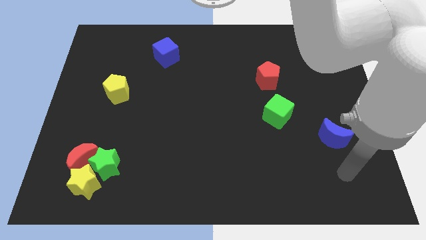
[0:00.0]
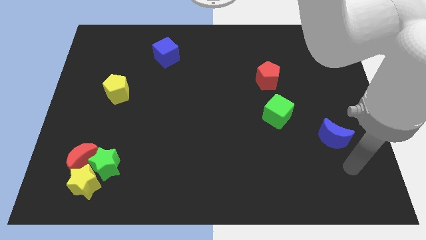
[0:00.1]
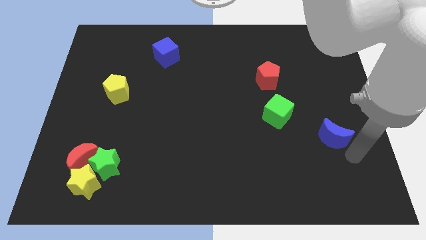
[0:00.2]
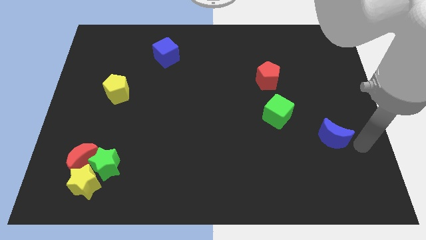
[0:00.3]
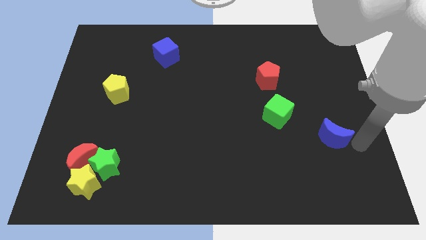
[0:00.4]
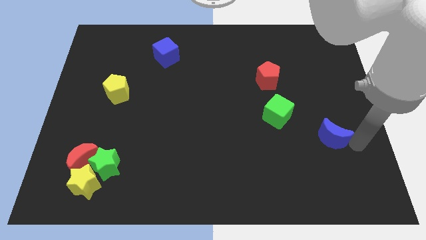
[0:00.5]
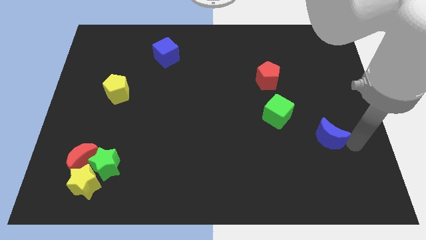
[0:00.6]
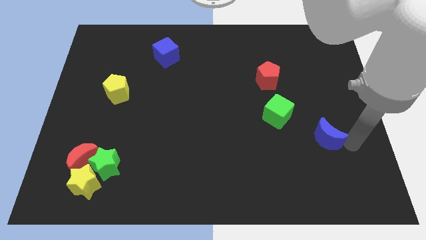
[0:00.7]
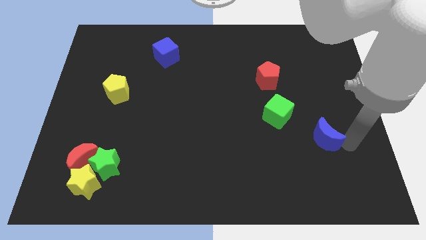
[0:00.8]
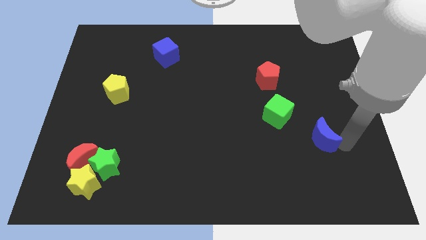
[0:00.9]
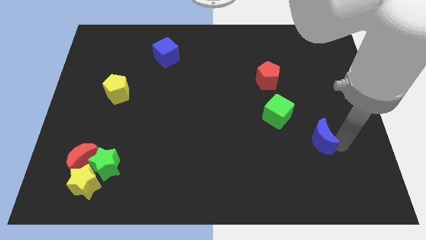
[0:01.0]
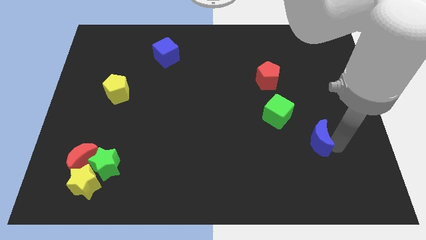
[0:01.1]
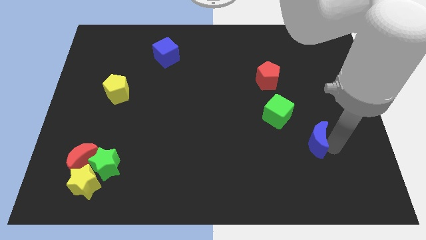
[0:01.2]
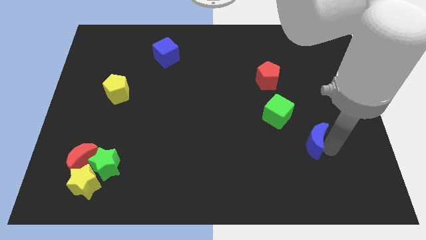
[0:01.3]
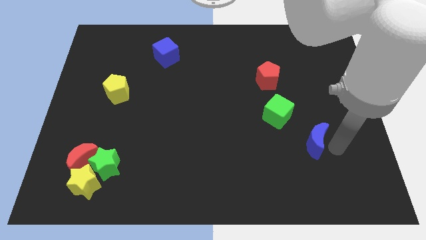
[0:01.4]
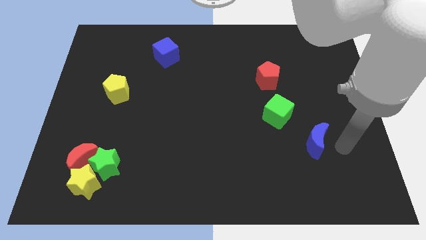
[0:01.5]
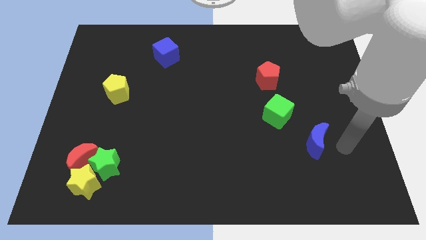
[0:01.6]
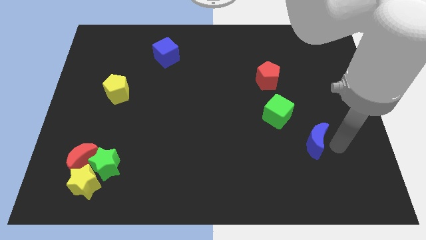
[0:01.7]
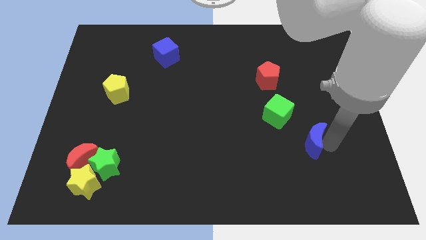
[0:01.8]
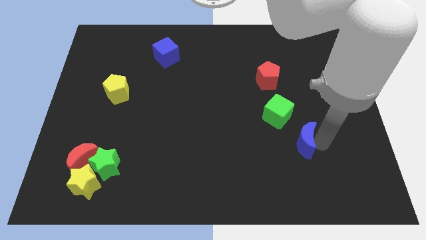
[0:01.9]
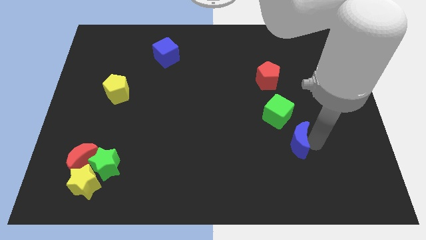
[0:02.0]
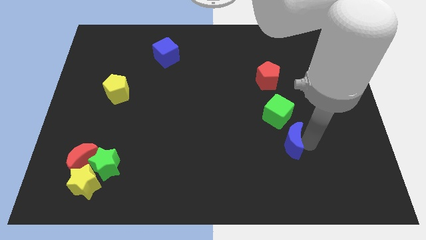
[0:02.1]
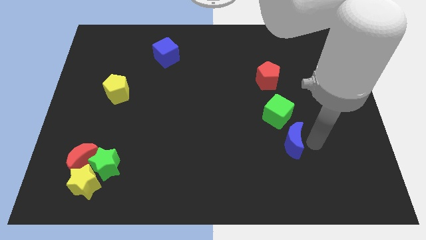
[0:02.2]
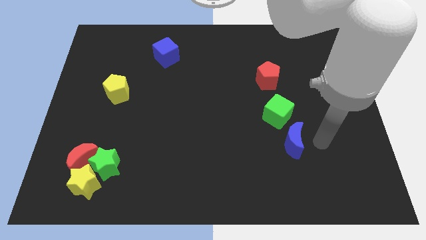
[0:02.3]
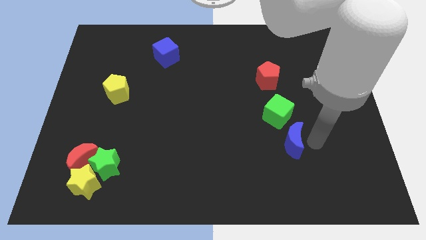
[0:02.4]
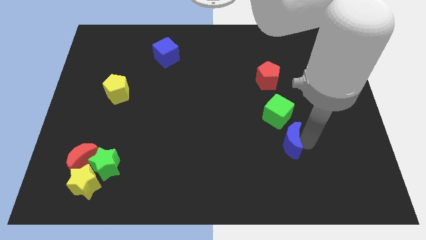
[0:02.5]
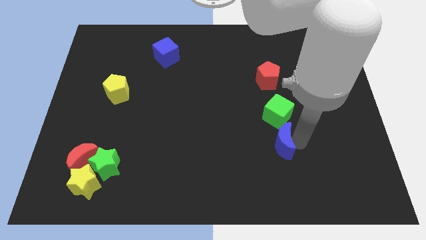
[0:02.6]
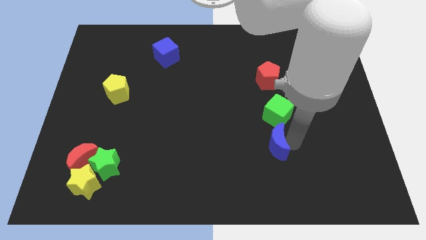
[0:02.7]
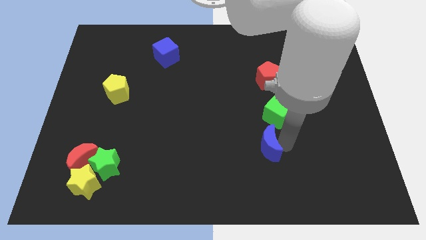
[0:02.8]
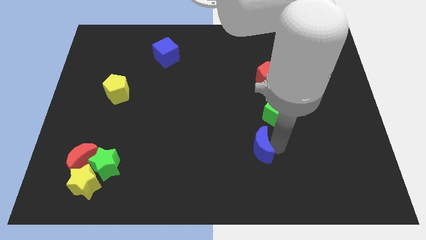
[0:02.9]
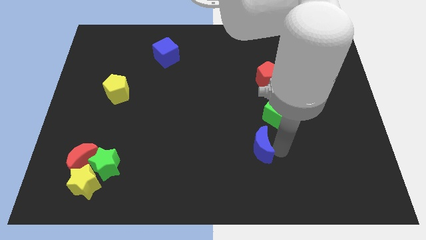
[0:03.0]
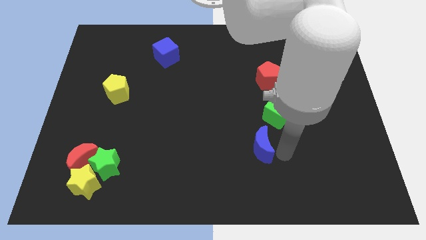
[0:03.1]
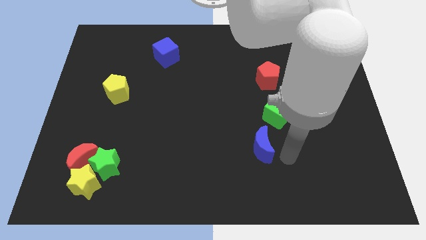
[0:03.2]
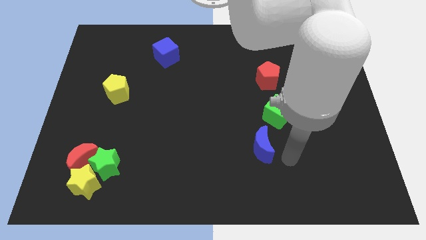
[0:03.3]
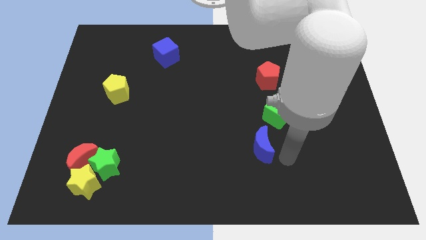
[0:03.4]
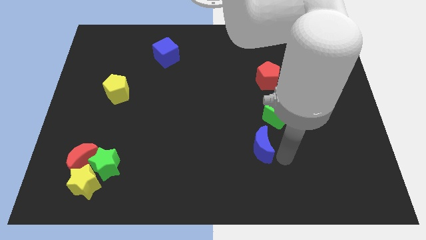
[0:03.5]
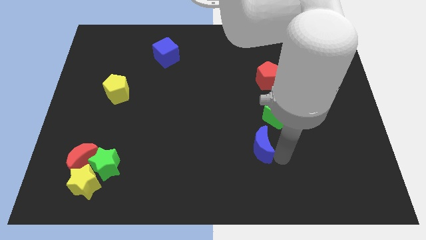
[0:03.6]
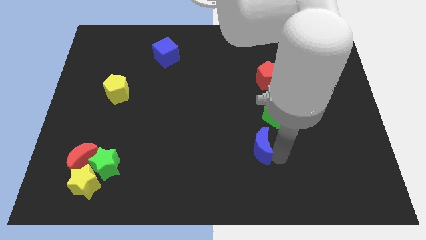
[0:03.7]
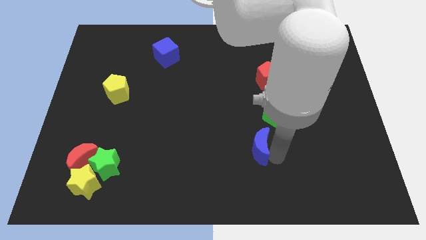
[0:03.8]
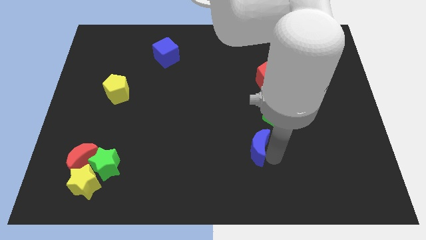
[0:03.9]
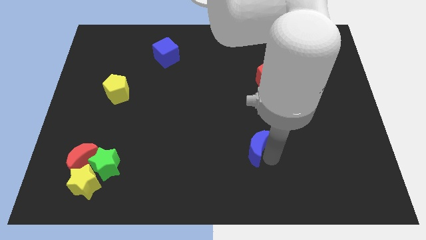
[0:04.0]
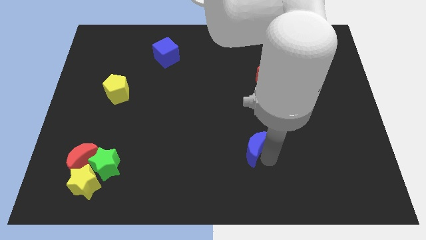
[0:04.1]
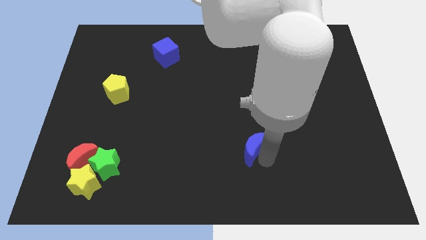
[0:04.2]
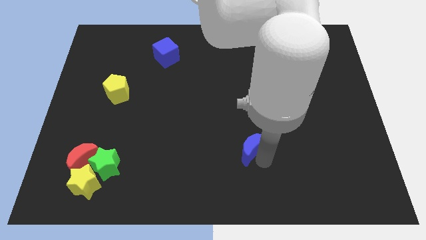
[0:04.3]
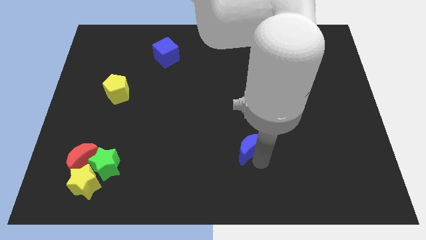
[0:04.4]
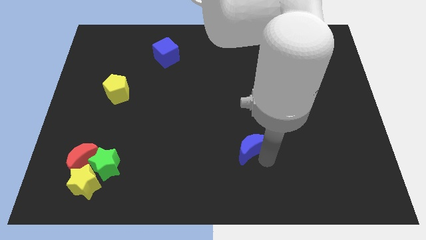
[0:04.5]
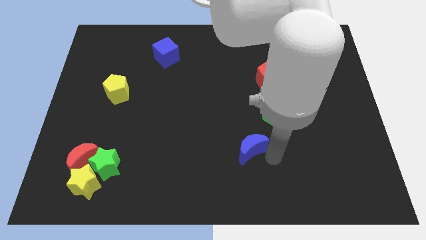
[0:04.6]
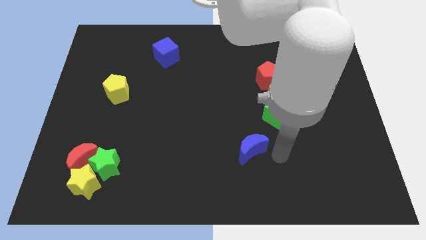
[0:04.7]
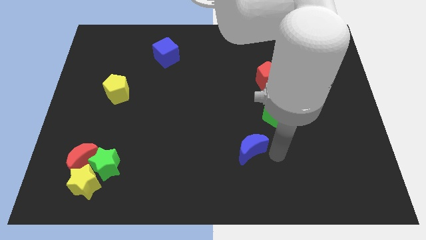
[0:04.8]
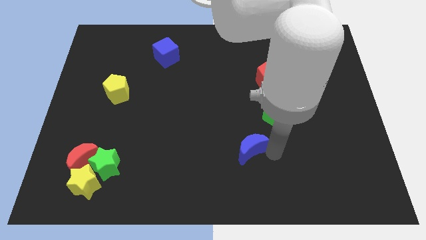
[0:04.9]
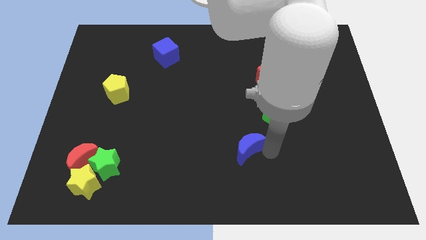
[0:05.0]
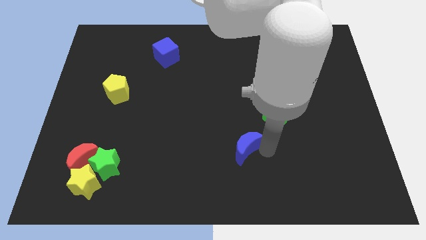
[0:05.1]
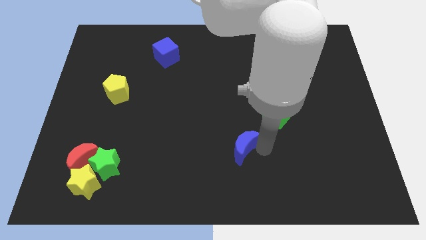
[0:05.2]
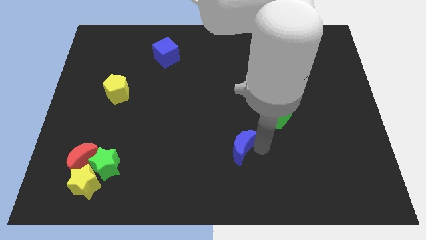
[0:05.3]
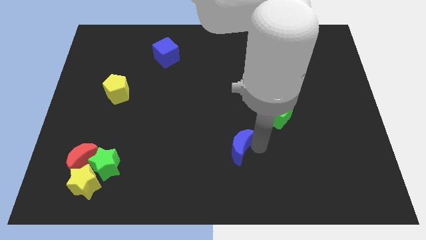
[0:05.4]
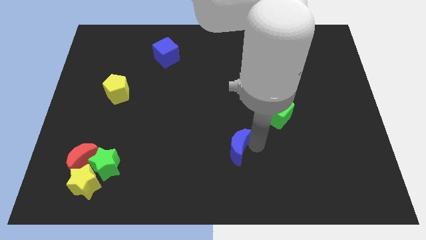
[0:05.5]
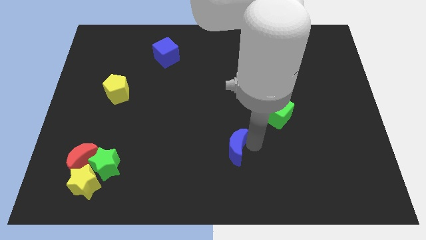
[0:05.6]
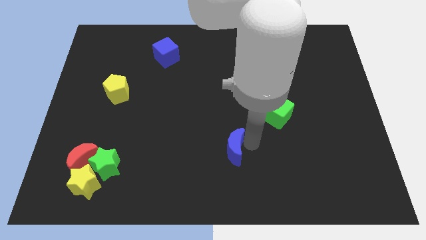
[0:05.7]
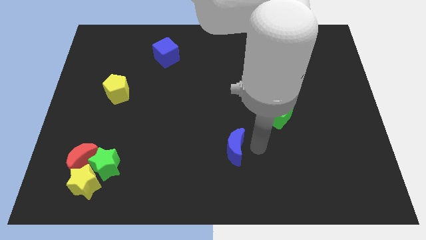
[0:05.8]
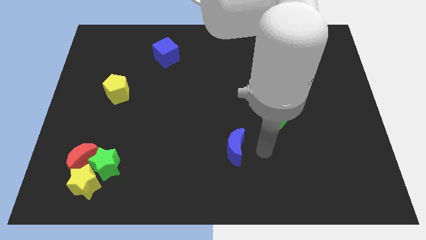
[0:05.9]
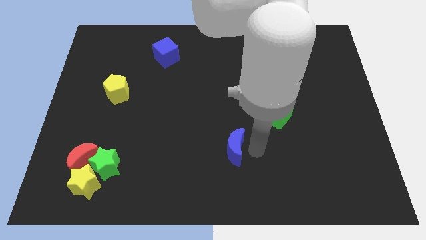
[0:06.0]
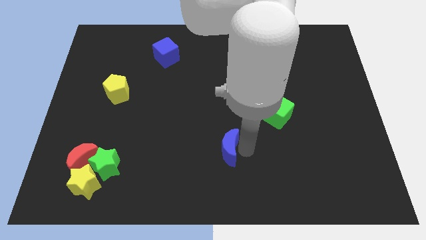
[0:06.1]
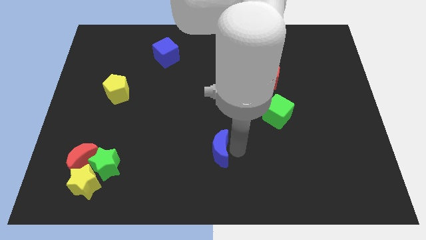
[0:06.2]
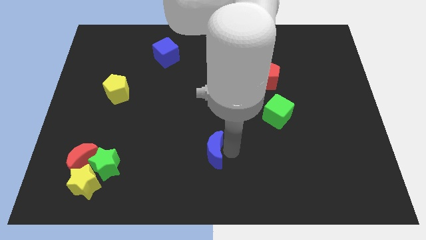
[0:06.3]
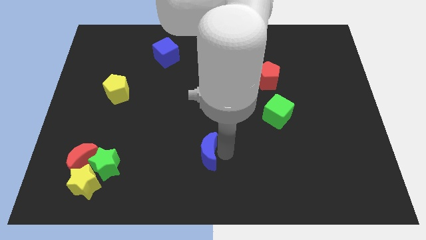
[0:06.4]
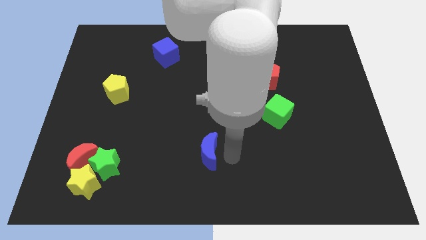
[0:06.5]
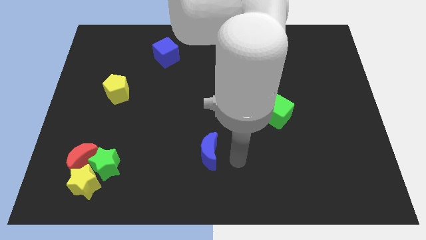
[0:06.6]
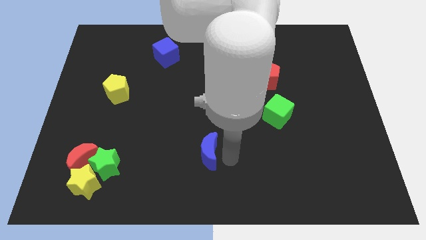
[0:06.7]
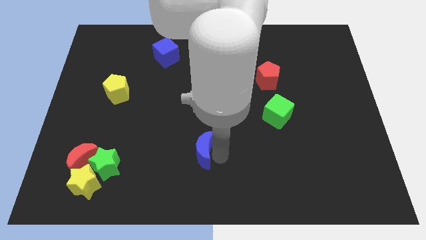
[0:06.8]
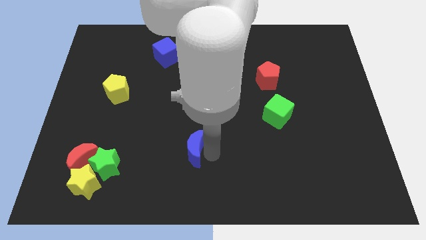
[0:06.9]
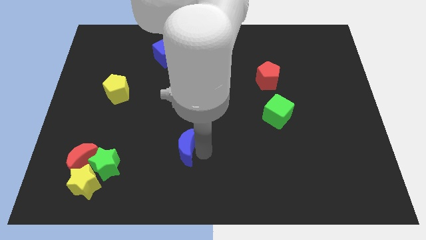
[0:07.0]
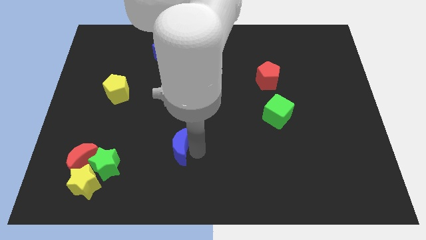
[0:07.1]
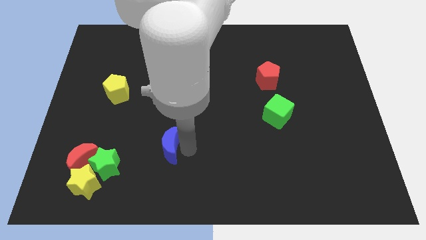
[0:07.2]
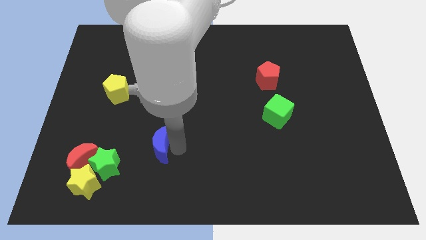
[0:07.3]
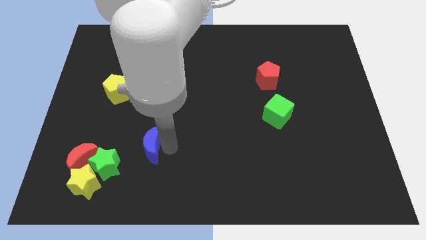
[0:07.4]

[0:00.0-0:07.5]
put the blue moon diagonally up and to the right of the green star
